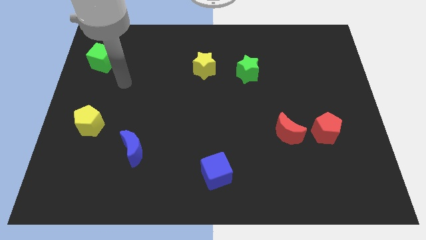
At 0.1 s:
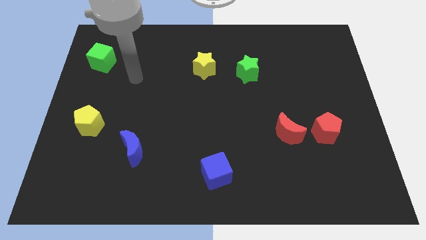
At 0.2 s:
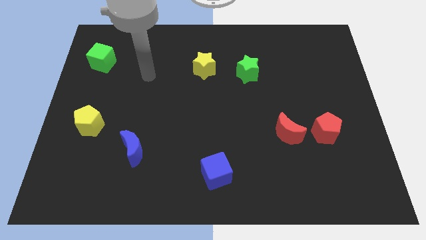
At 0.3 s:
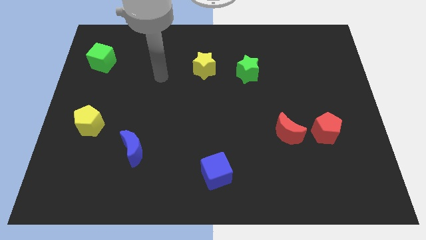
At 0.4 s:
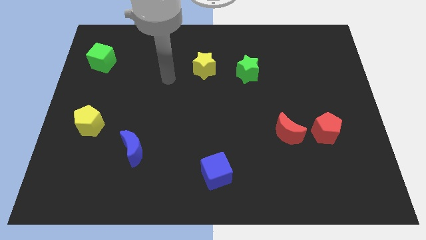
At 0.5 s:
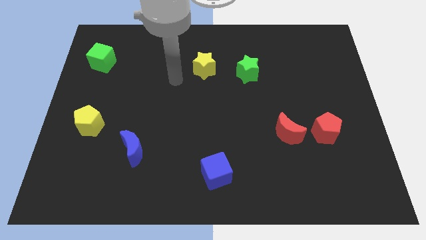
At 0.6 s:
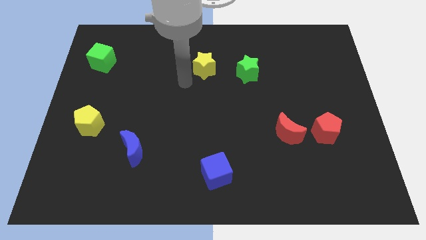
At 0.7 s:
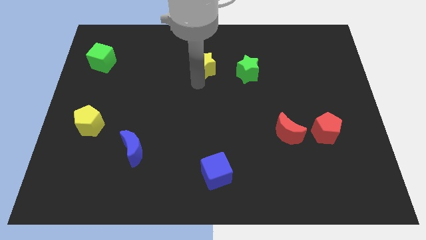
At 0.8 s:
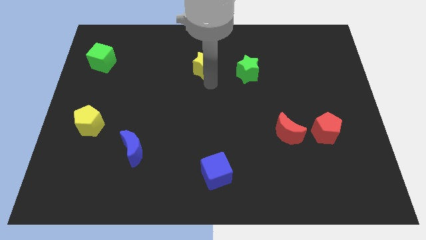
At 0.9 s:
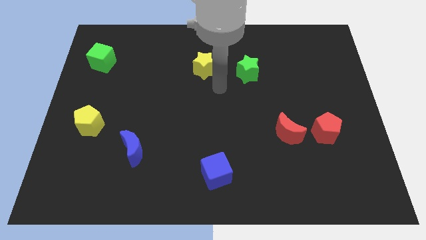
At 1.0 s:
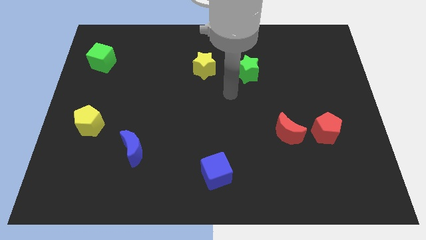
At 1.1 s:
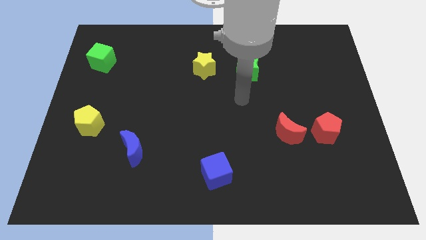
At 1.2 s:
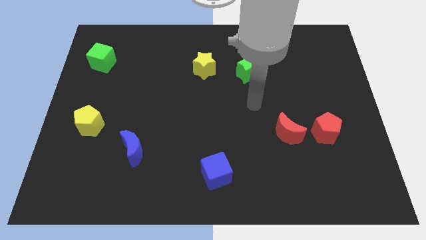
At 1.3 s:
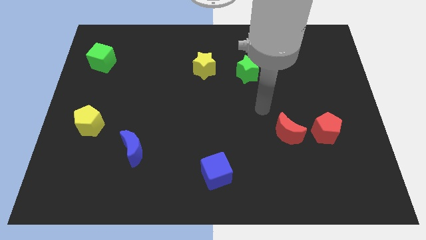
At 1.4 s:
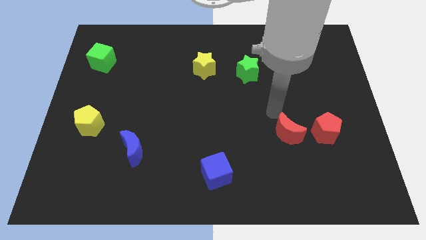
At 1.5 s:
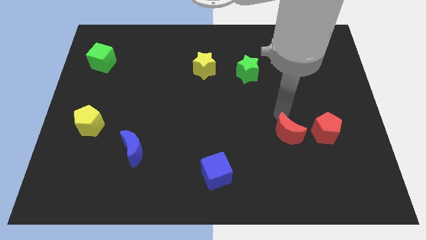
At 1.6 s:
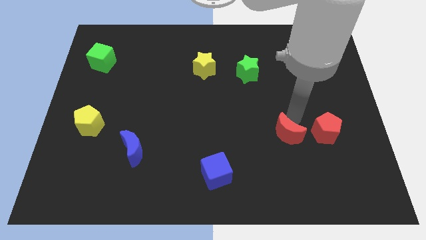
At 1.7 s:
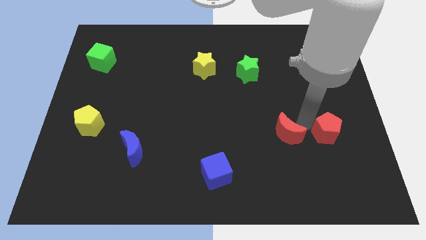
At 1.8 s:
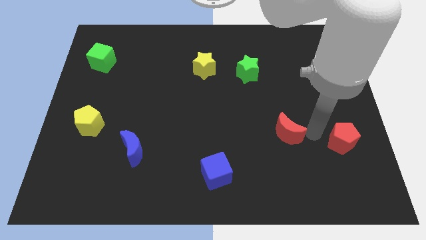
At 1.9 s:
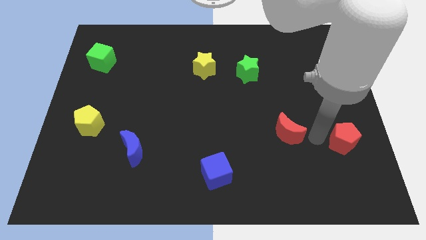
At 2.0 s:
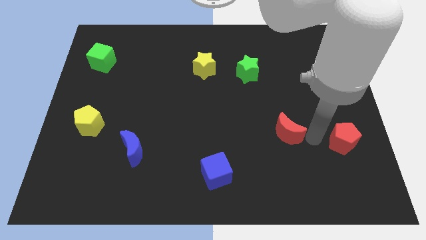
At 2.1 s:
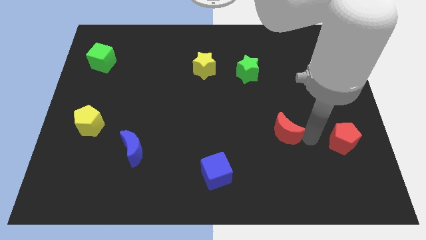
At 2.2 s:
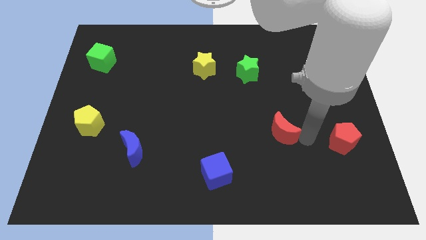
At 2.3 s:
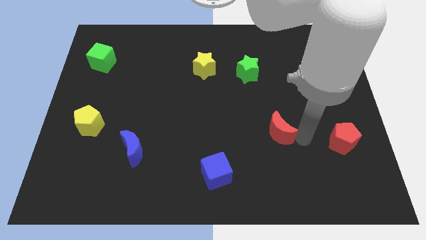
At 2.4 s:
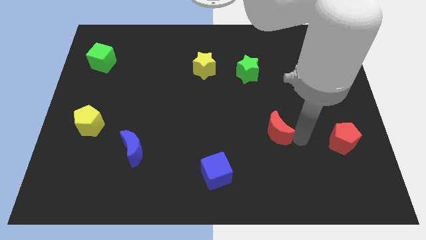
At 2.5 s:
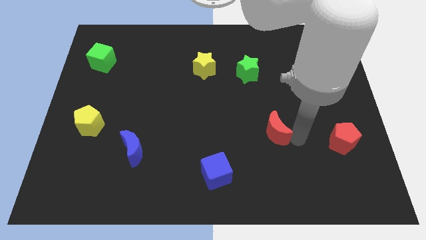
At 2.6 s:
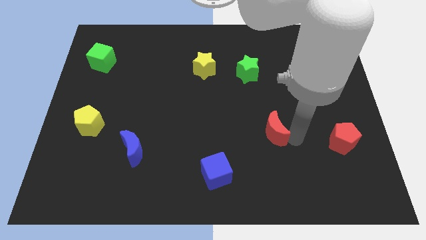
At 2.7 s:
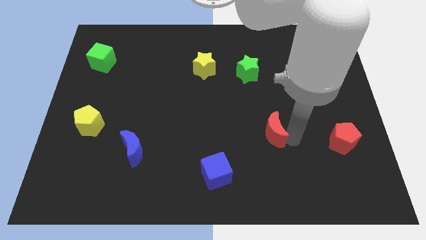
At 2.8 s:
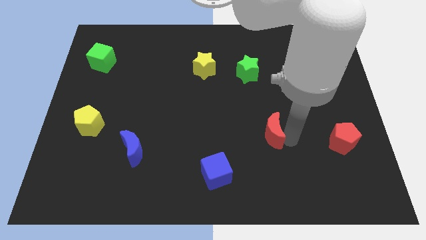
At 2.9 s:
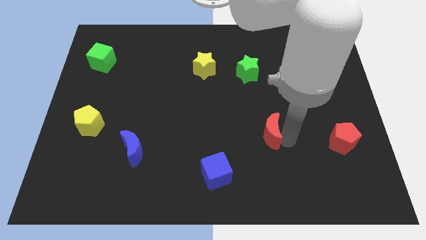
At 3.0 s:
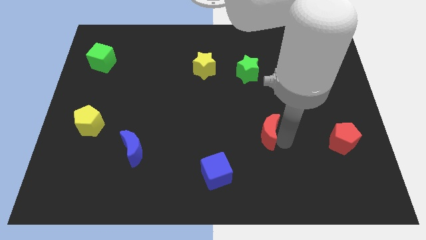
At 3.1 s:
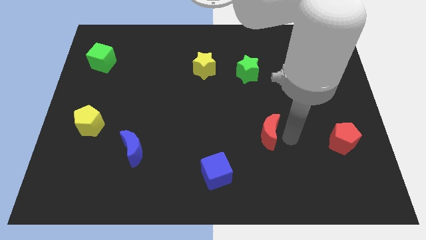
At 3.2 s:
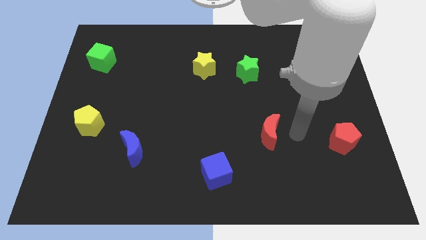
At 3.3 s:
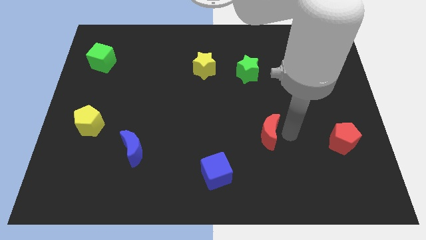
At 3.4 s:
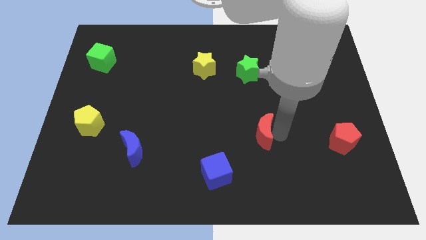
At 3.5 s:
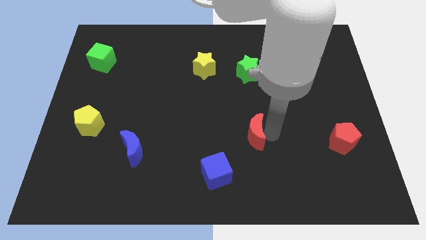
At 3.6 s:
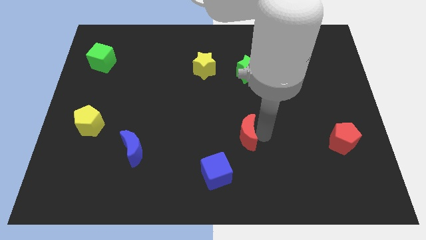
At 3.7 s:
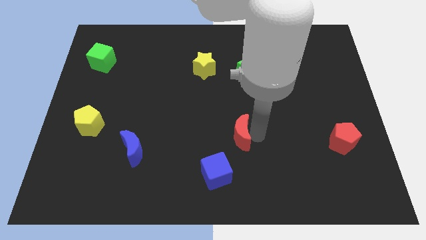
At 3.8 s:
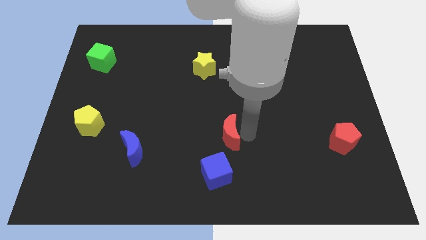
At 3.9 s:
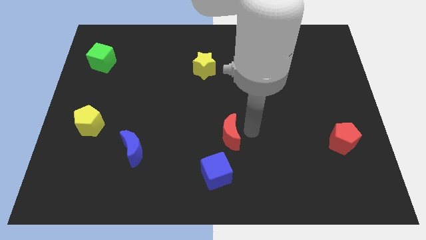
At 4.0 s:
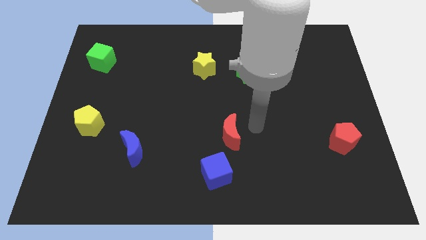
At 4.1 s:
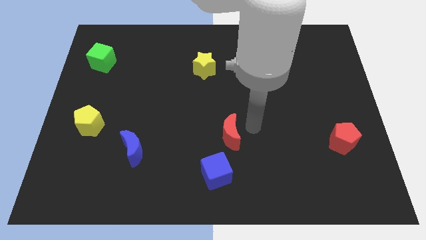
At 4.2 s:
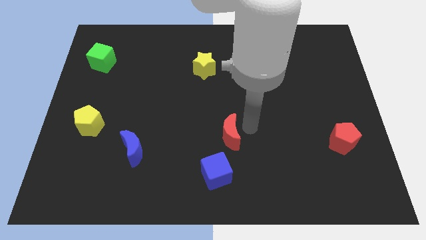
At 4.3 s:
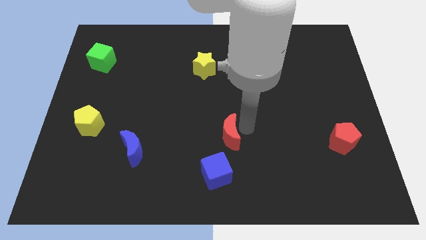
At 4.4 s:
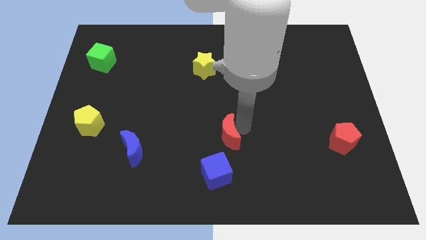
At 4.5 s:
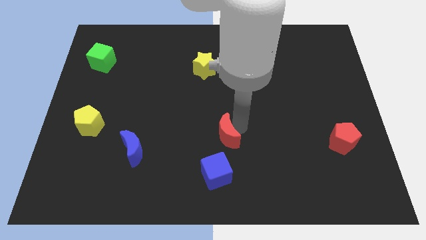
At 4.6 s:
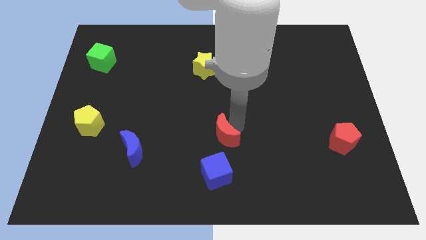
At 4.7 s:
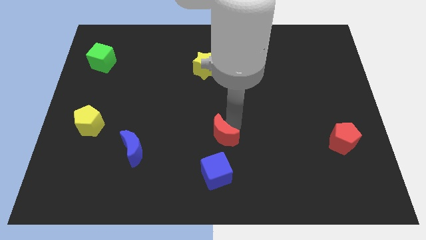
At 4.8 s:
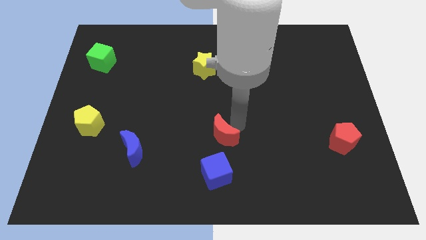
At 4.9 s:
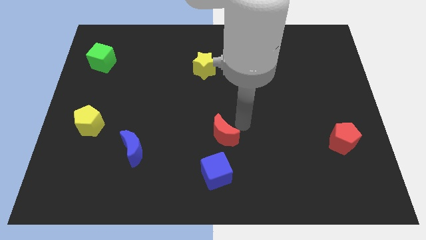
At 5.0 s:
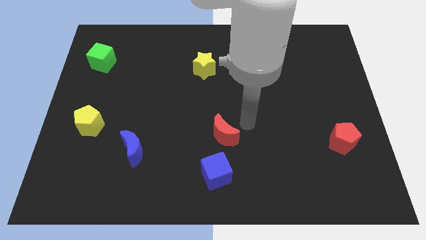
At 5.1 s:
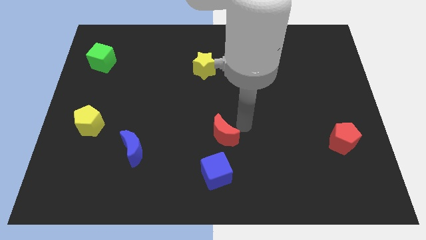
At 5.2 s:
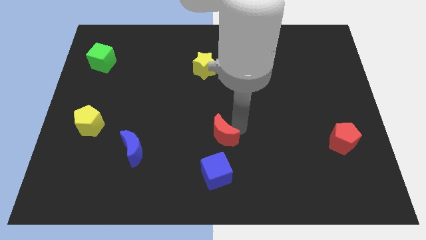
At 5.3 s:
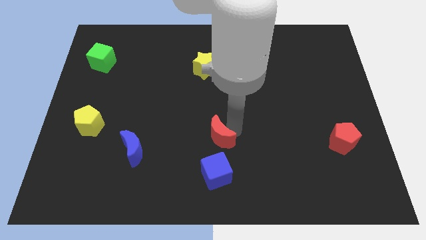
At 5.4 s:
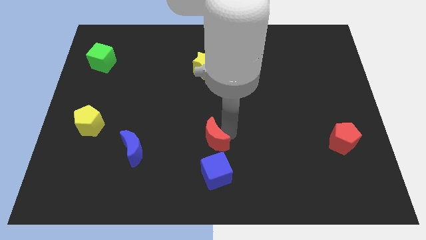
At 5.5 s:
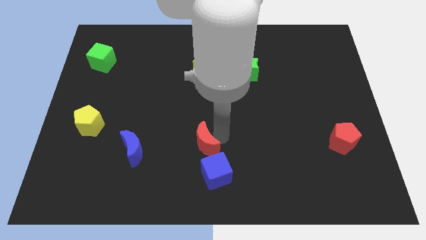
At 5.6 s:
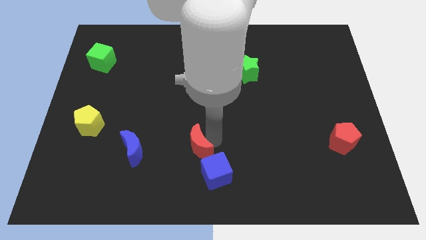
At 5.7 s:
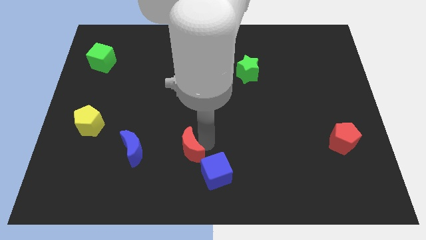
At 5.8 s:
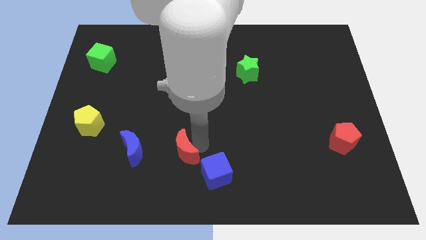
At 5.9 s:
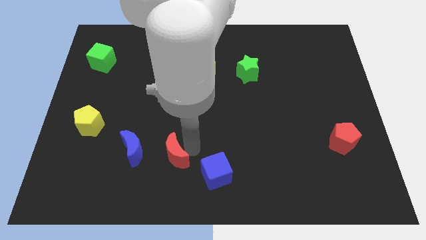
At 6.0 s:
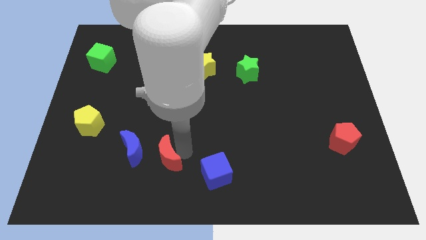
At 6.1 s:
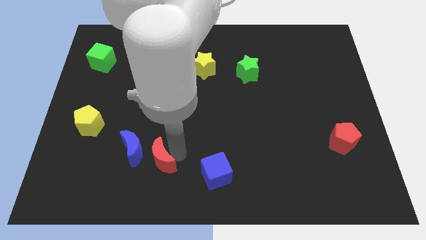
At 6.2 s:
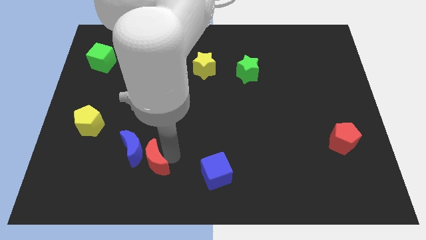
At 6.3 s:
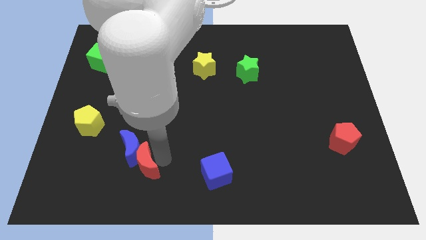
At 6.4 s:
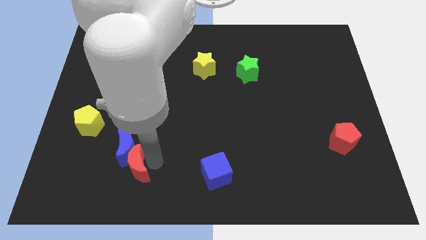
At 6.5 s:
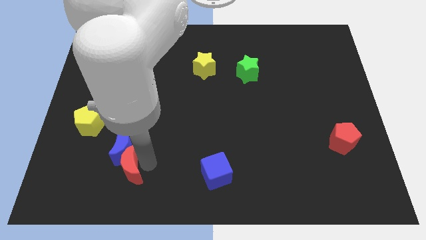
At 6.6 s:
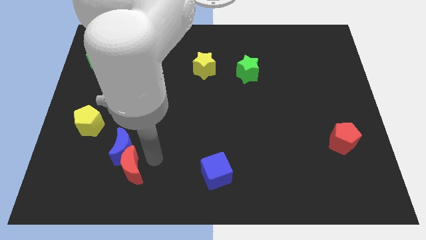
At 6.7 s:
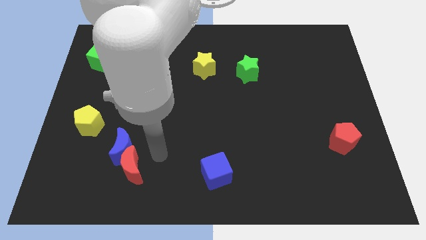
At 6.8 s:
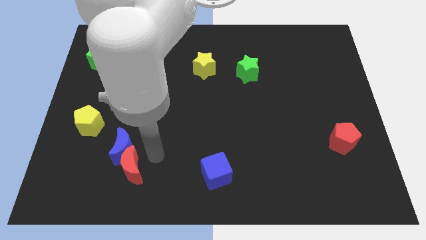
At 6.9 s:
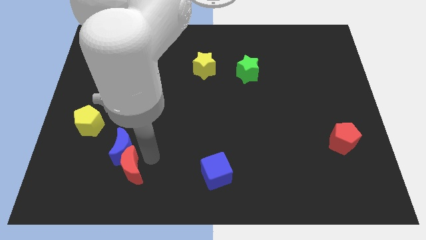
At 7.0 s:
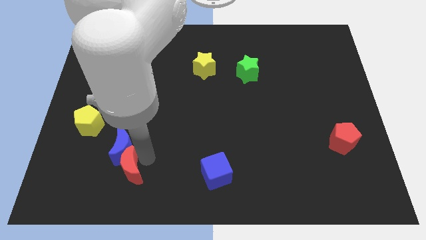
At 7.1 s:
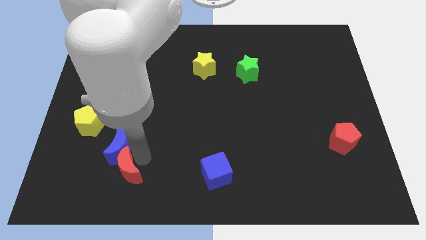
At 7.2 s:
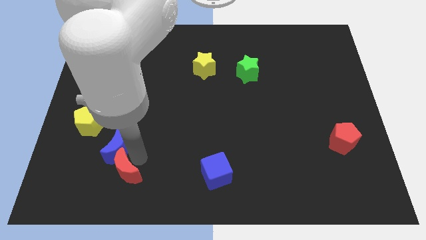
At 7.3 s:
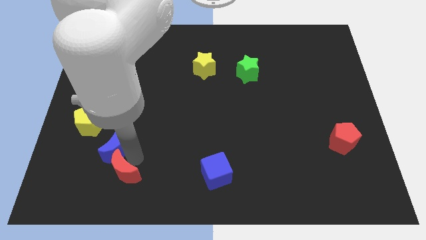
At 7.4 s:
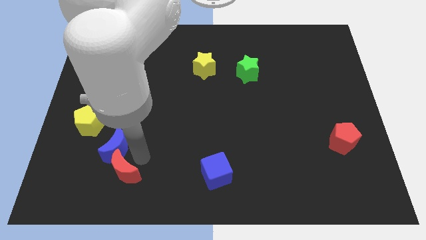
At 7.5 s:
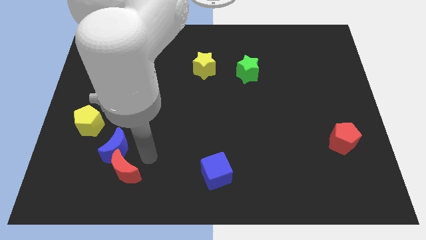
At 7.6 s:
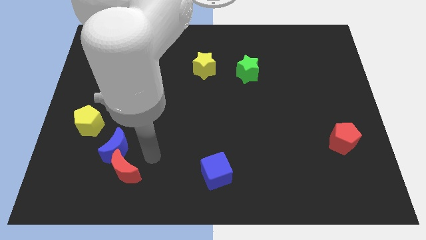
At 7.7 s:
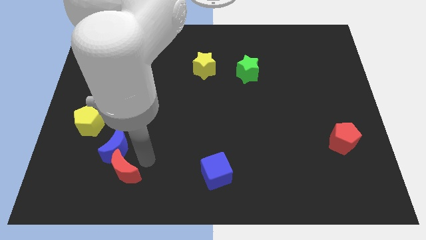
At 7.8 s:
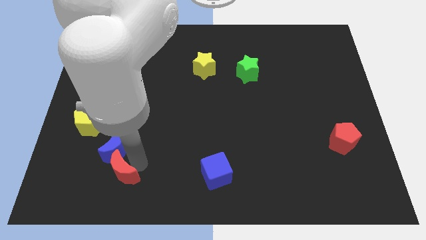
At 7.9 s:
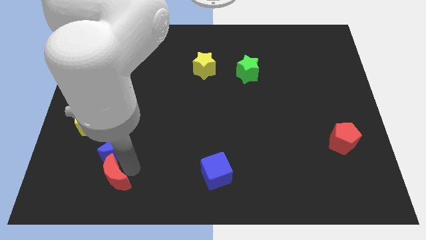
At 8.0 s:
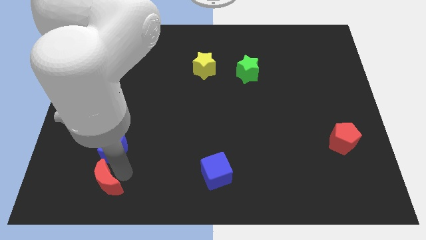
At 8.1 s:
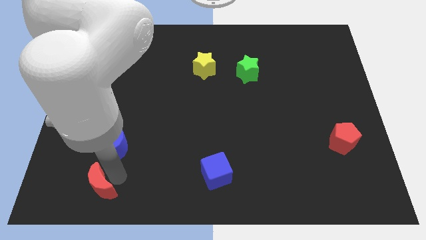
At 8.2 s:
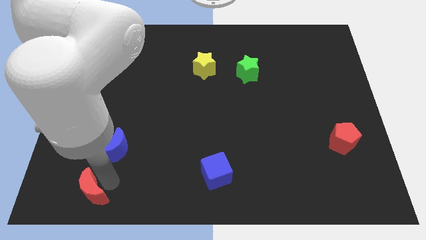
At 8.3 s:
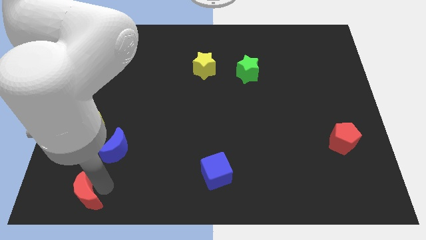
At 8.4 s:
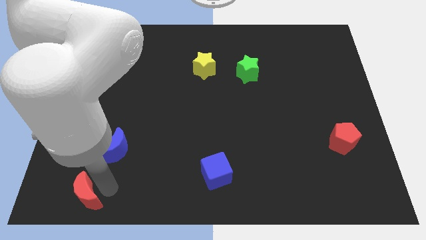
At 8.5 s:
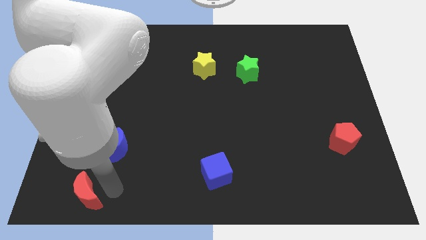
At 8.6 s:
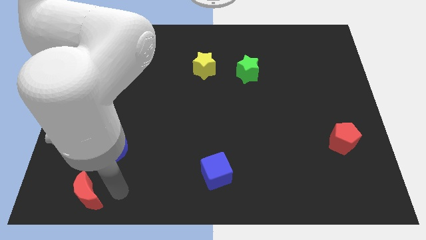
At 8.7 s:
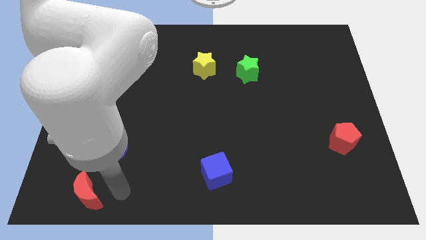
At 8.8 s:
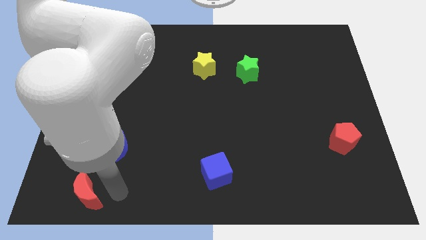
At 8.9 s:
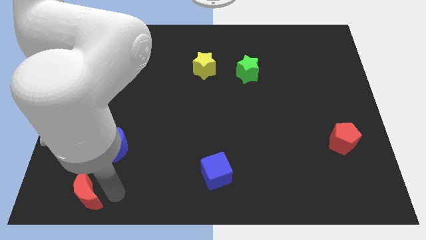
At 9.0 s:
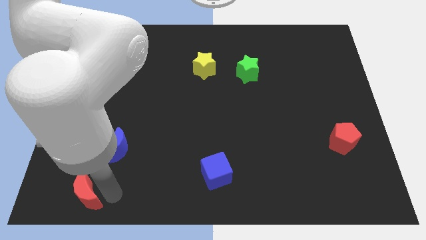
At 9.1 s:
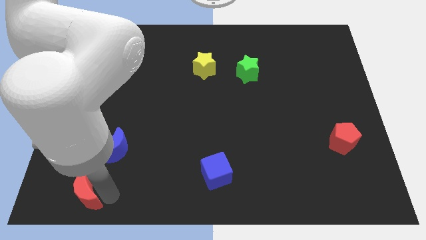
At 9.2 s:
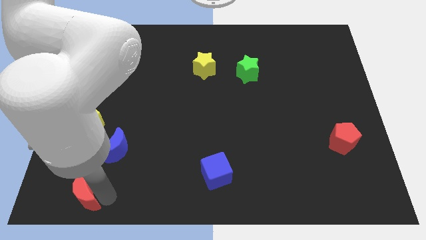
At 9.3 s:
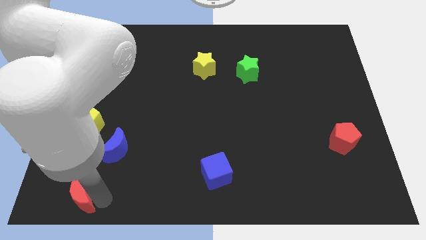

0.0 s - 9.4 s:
push the red moon to the bottom left of the board
